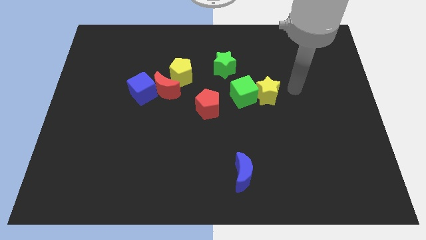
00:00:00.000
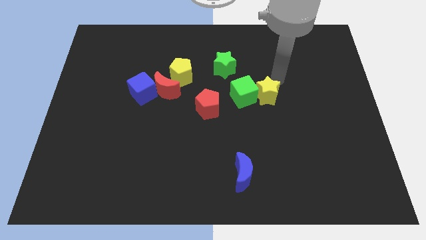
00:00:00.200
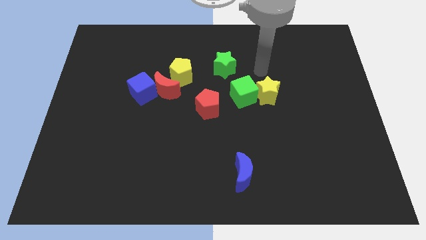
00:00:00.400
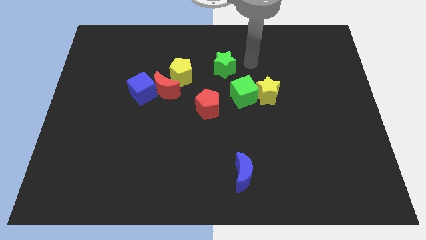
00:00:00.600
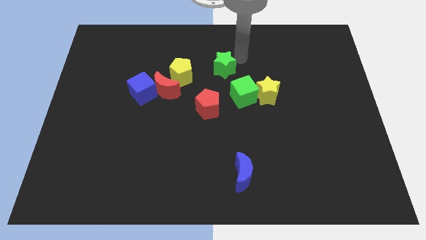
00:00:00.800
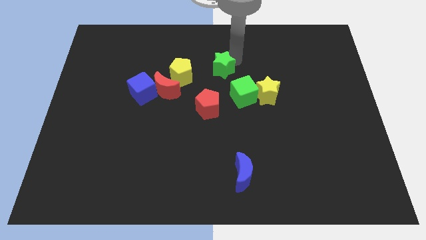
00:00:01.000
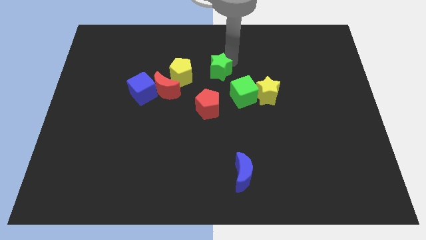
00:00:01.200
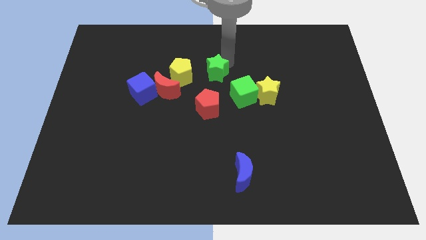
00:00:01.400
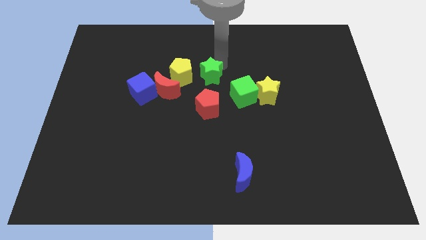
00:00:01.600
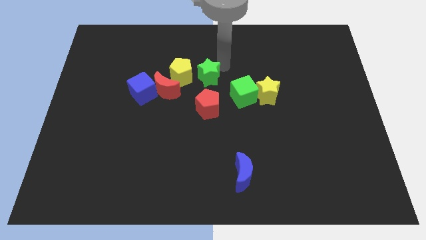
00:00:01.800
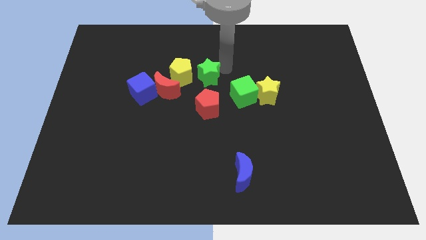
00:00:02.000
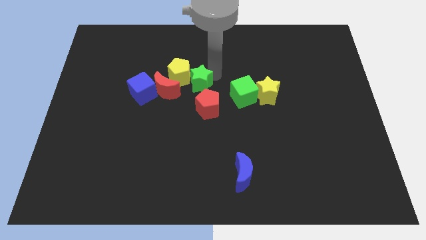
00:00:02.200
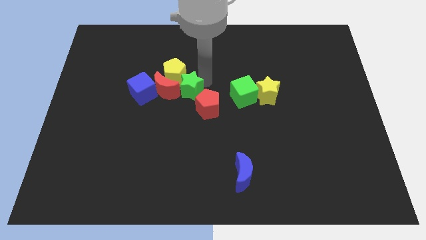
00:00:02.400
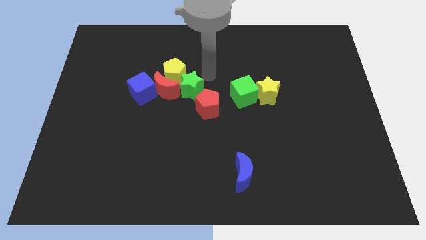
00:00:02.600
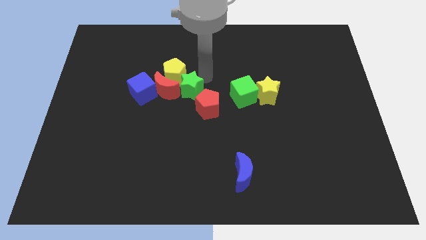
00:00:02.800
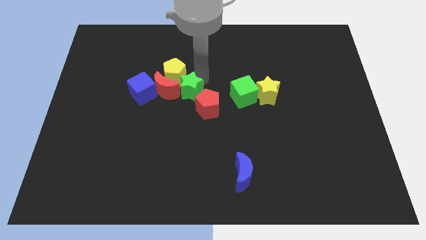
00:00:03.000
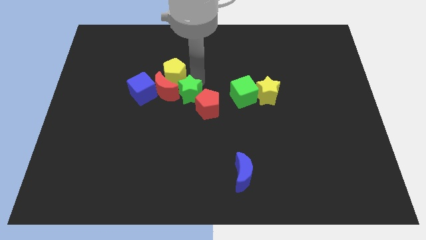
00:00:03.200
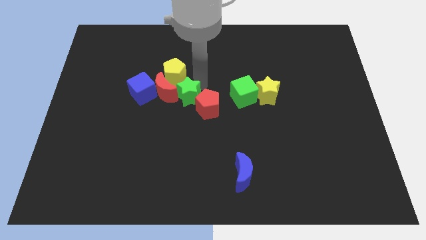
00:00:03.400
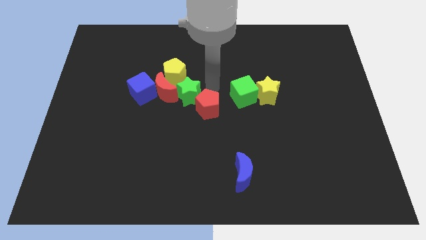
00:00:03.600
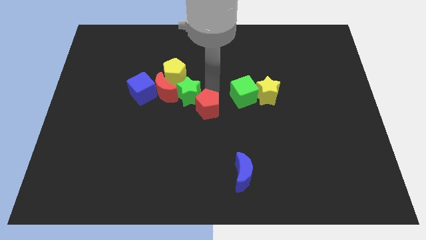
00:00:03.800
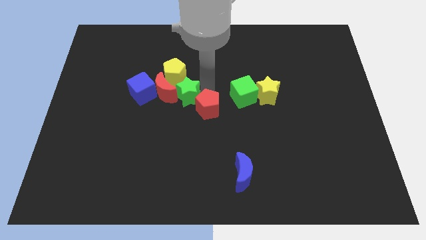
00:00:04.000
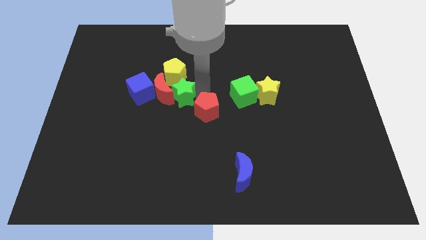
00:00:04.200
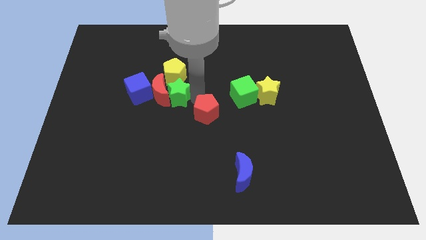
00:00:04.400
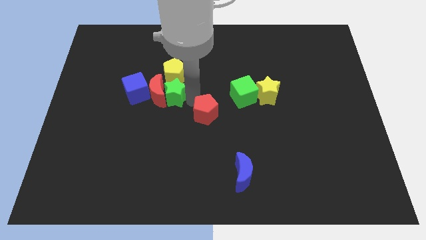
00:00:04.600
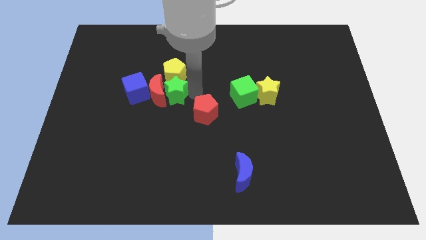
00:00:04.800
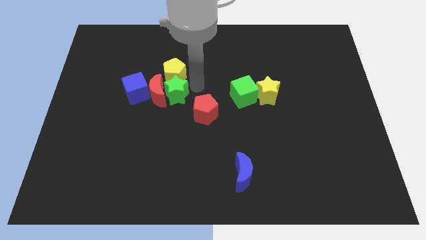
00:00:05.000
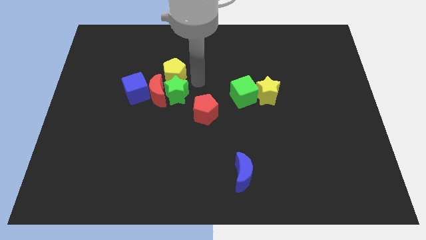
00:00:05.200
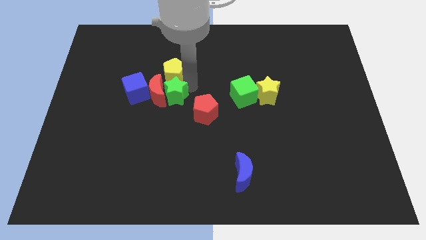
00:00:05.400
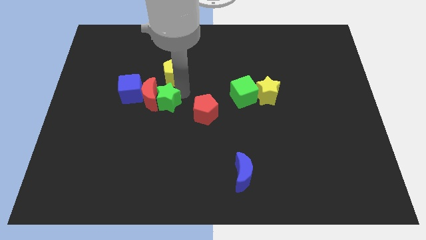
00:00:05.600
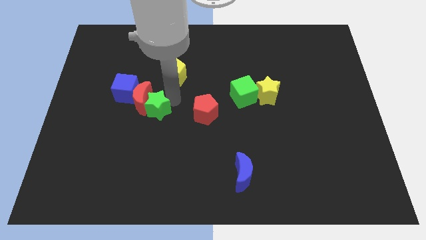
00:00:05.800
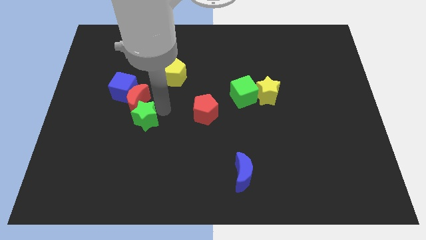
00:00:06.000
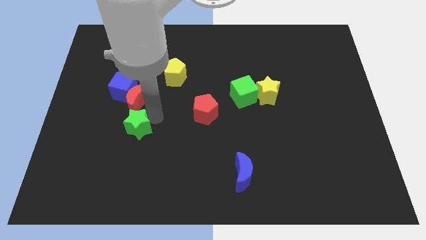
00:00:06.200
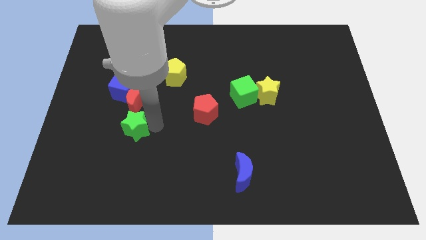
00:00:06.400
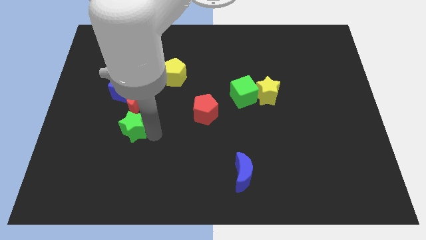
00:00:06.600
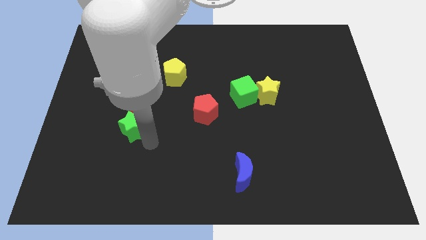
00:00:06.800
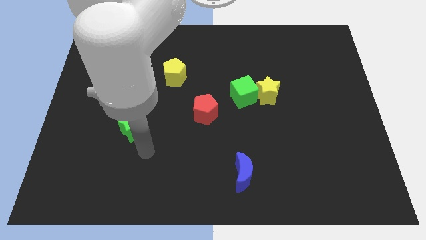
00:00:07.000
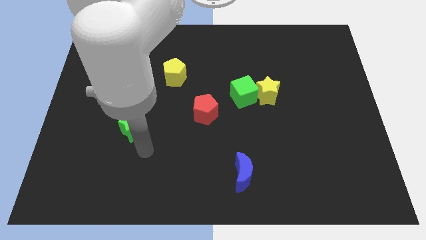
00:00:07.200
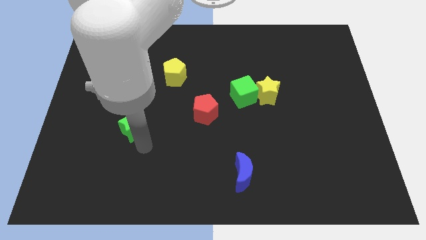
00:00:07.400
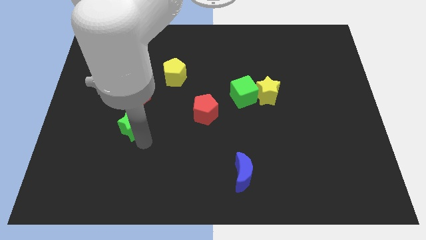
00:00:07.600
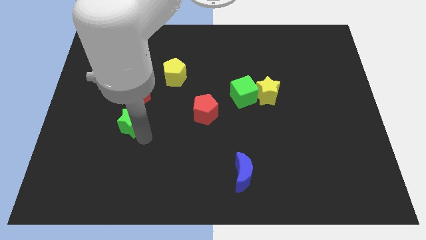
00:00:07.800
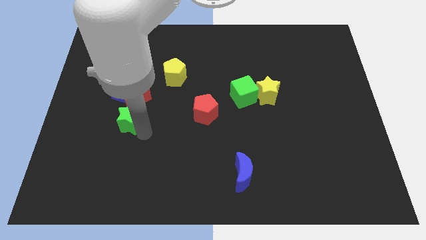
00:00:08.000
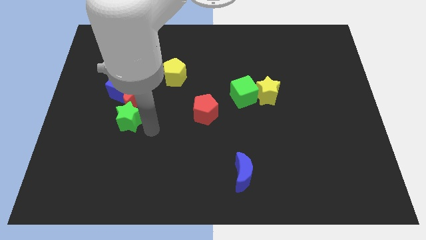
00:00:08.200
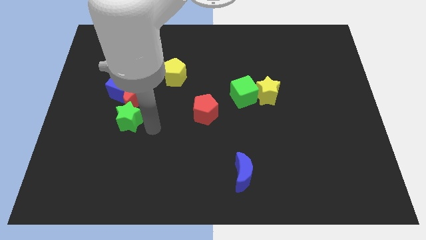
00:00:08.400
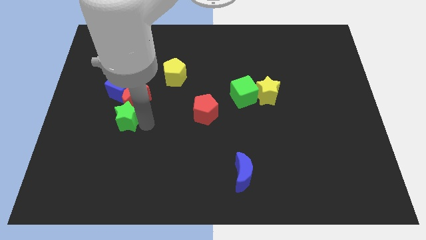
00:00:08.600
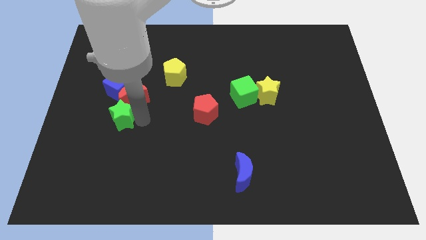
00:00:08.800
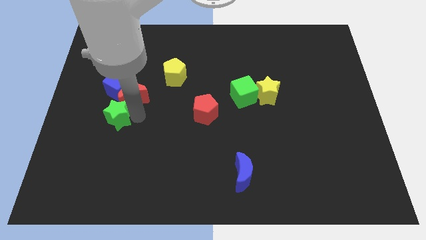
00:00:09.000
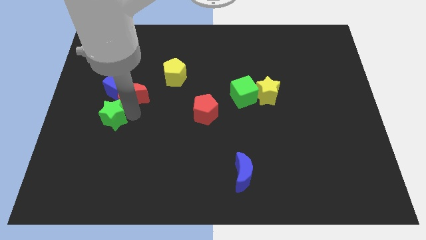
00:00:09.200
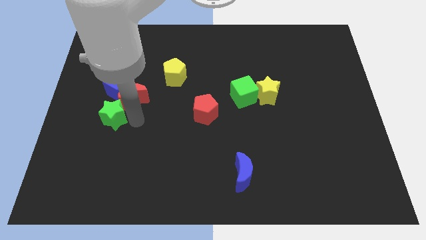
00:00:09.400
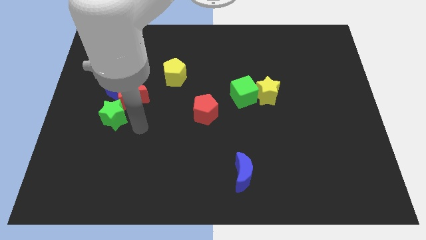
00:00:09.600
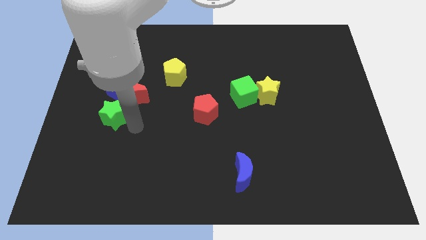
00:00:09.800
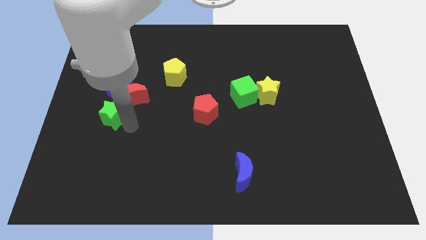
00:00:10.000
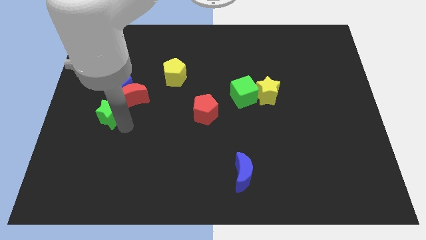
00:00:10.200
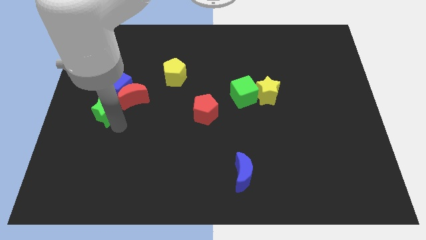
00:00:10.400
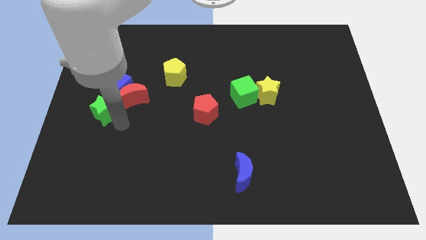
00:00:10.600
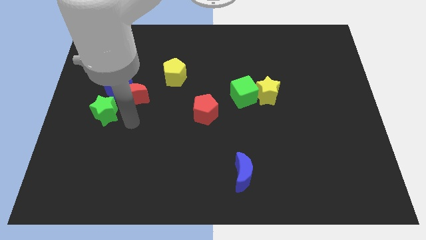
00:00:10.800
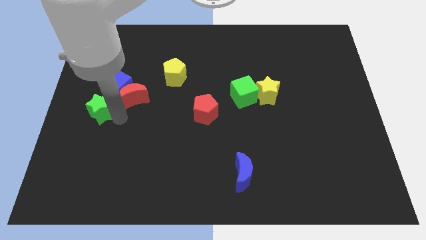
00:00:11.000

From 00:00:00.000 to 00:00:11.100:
move the green star to the left side

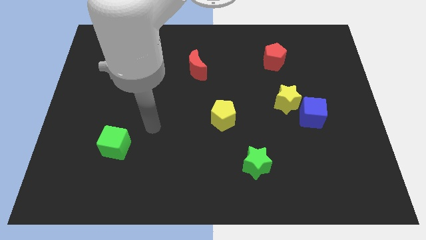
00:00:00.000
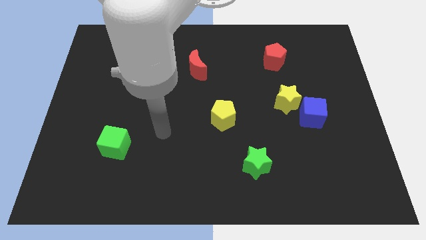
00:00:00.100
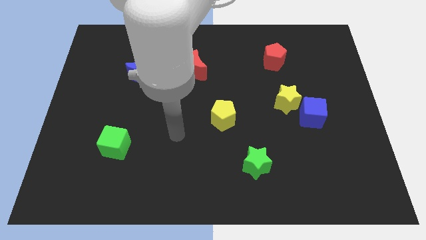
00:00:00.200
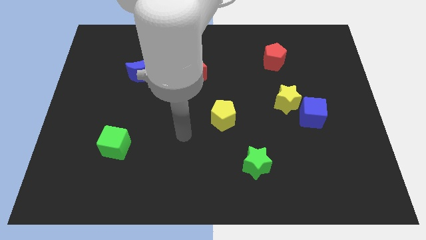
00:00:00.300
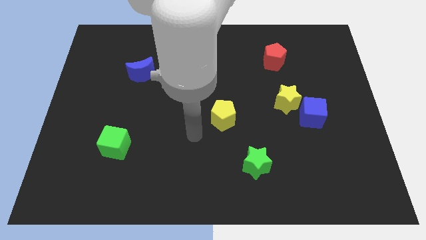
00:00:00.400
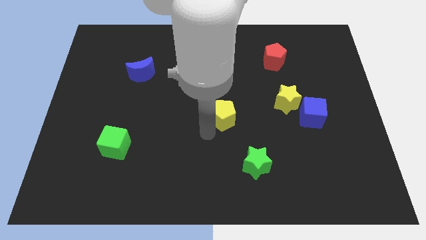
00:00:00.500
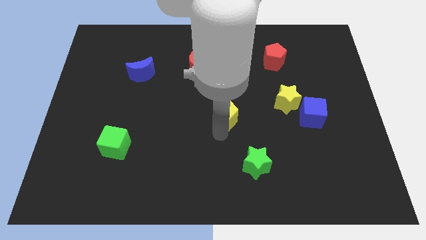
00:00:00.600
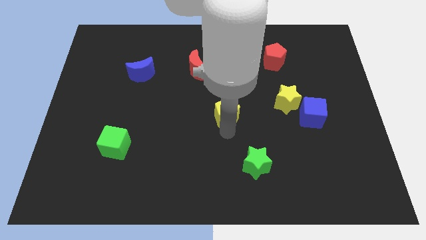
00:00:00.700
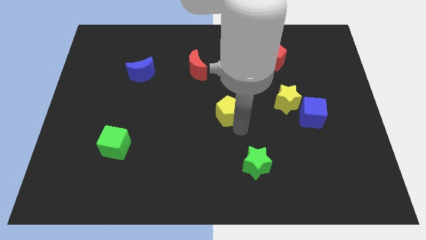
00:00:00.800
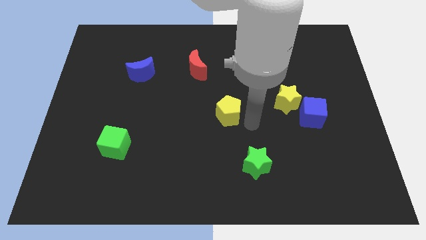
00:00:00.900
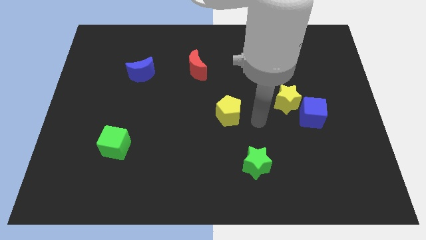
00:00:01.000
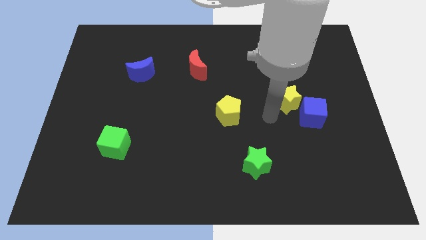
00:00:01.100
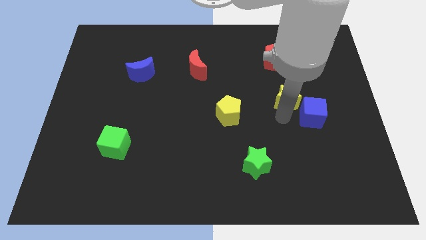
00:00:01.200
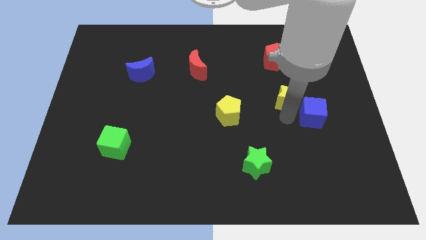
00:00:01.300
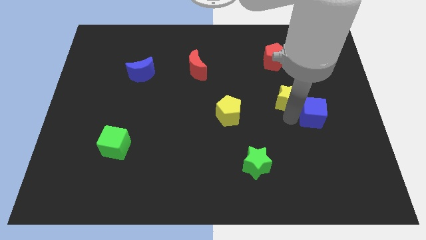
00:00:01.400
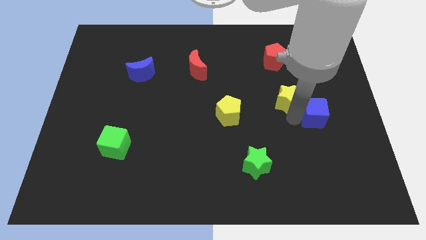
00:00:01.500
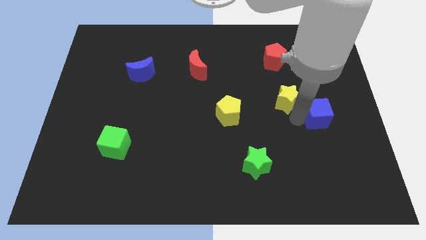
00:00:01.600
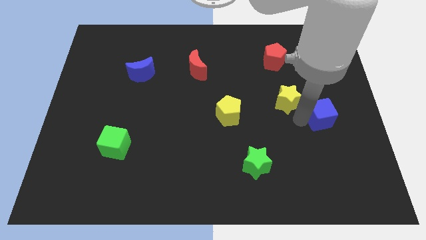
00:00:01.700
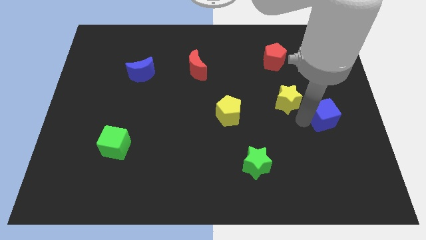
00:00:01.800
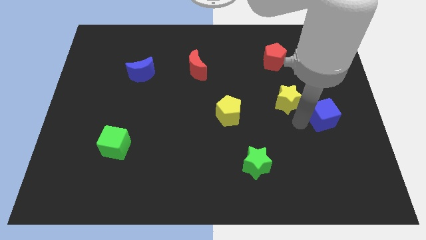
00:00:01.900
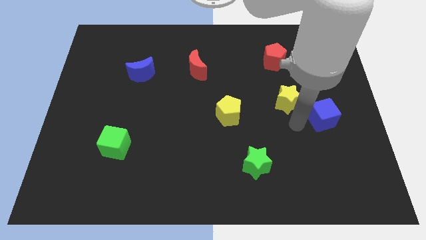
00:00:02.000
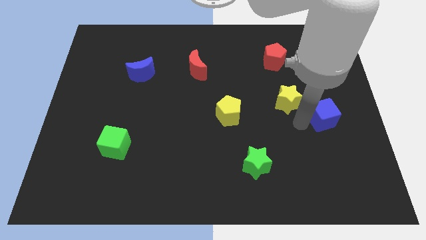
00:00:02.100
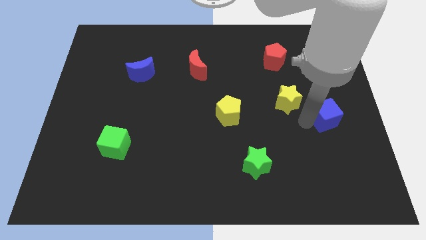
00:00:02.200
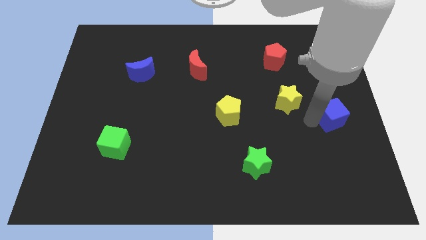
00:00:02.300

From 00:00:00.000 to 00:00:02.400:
put the blue cube to the center right
